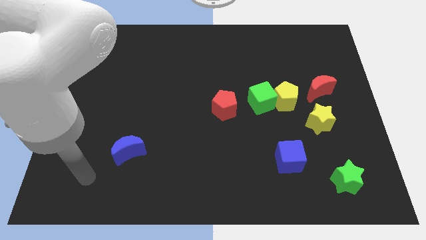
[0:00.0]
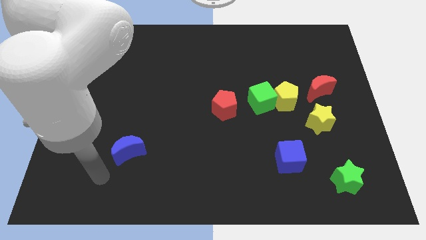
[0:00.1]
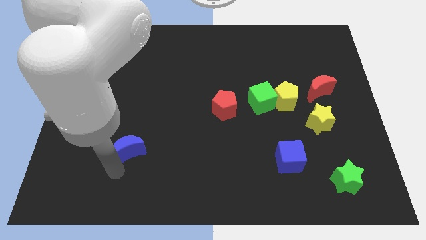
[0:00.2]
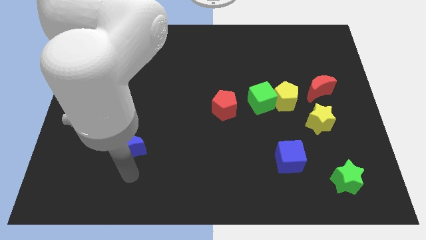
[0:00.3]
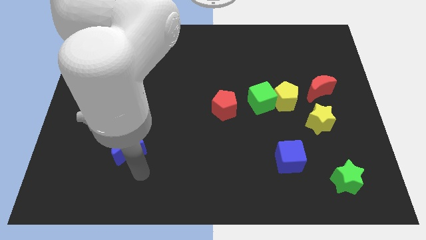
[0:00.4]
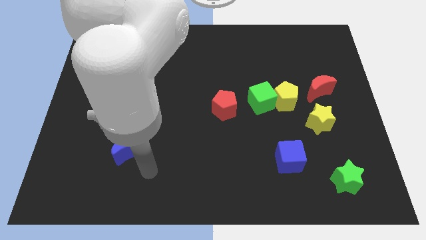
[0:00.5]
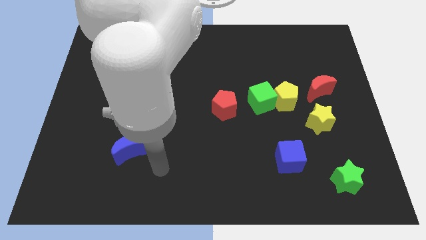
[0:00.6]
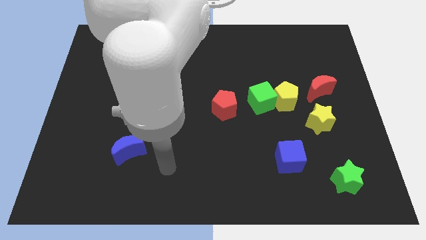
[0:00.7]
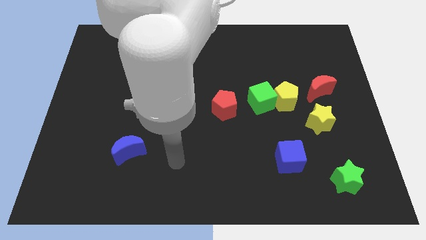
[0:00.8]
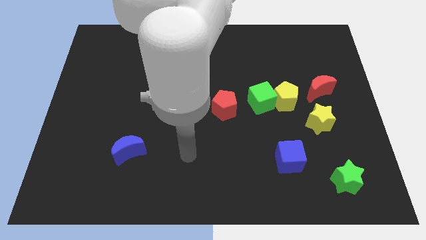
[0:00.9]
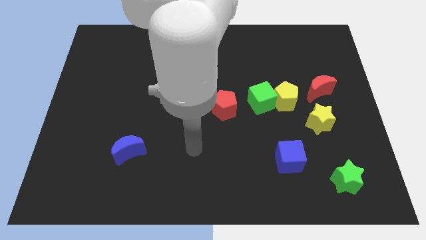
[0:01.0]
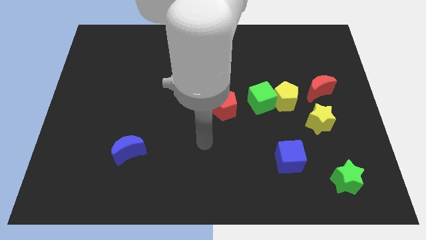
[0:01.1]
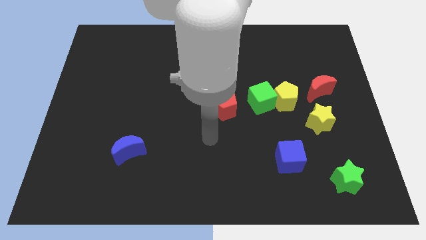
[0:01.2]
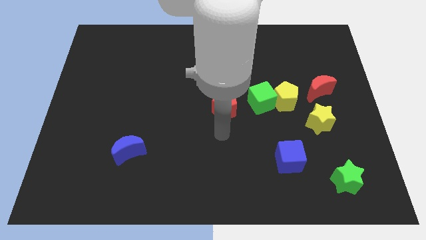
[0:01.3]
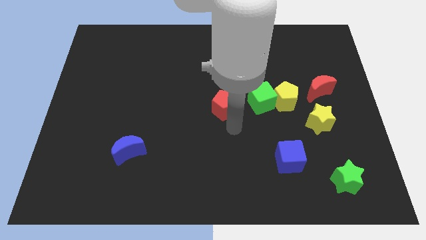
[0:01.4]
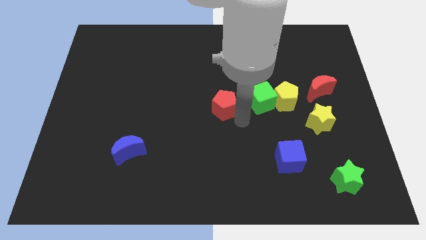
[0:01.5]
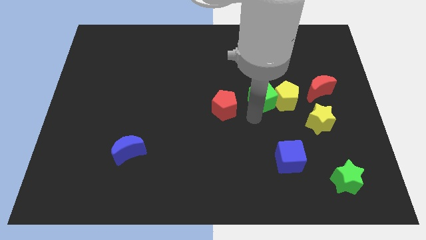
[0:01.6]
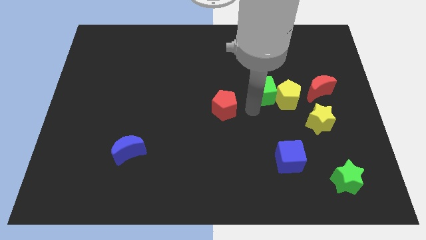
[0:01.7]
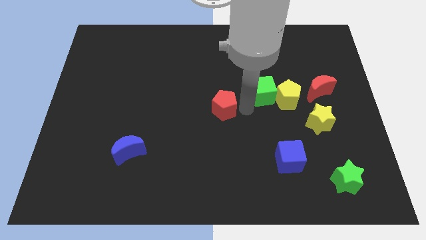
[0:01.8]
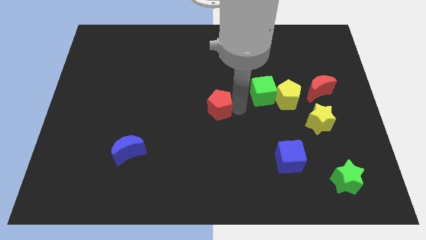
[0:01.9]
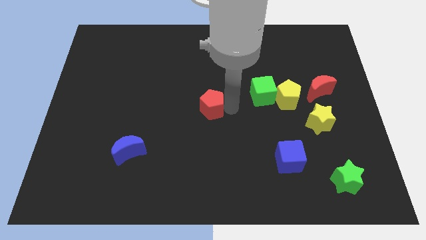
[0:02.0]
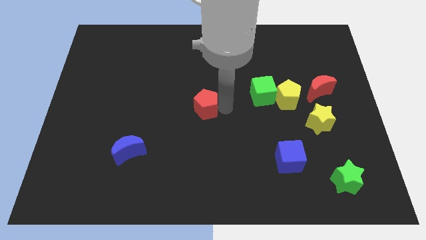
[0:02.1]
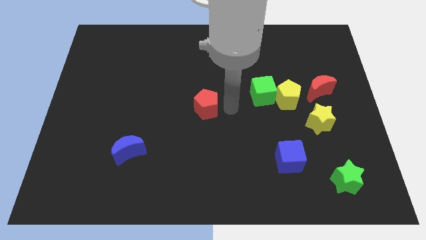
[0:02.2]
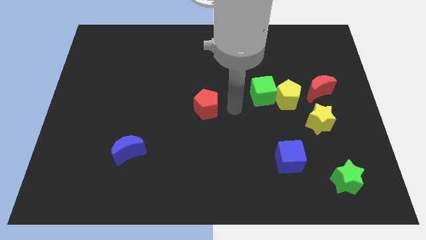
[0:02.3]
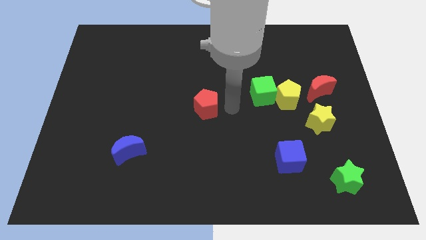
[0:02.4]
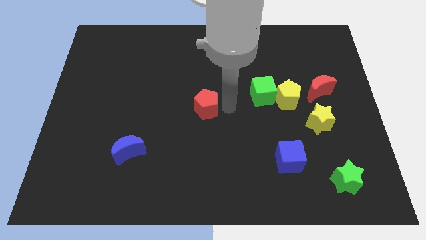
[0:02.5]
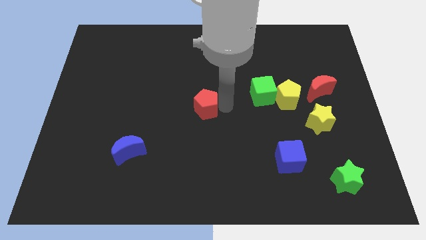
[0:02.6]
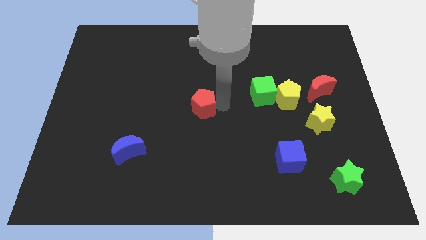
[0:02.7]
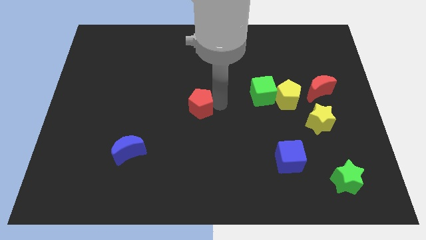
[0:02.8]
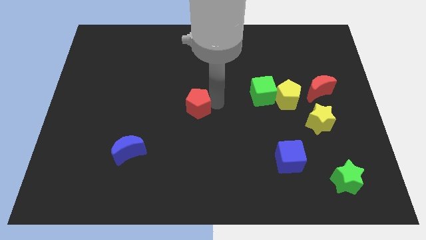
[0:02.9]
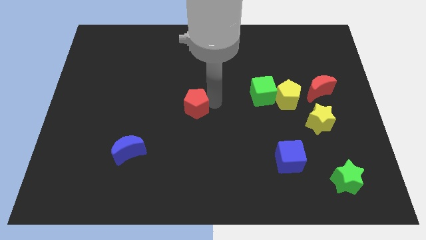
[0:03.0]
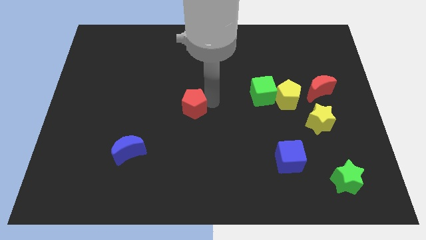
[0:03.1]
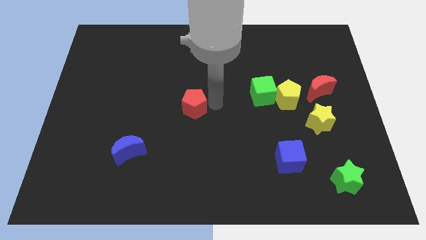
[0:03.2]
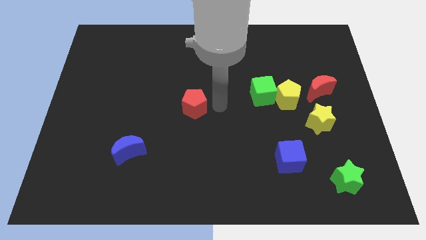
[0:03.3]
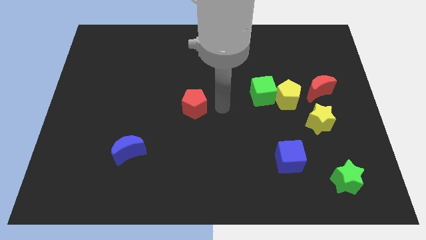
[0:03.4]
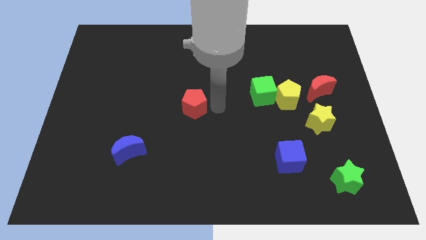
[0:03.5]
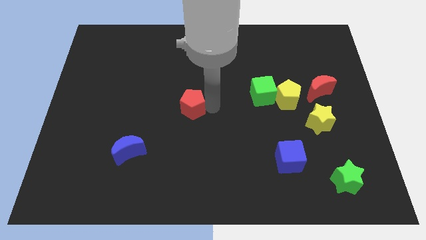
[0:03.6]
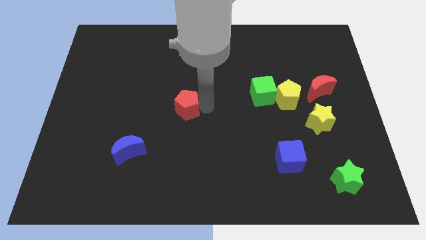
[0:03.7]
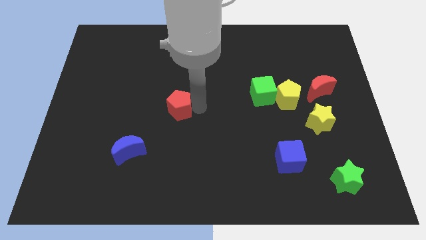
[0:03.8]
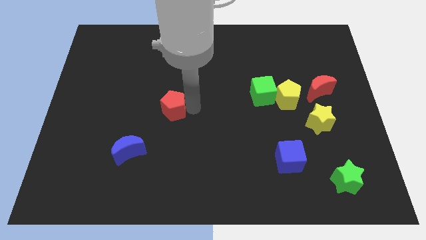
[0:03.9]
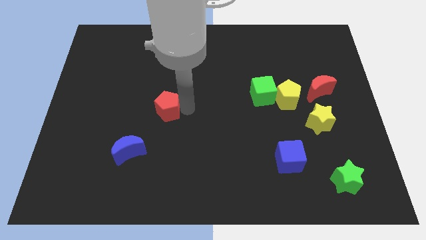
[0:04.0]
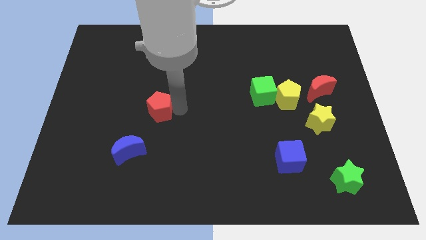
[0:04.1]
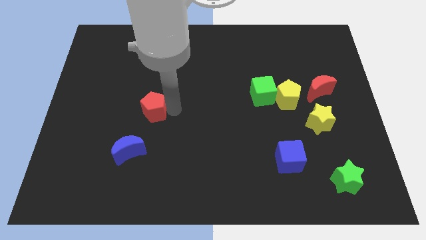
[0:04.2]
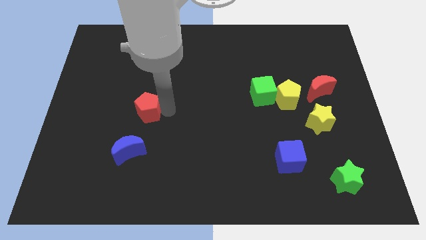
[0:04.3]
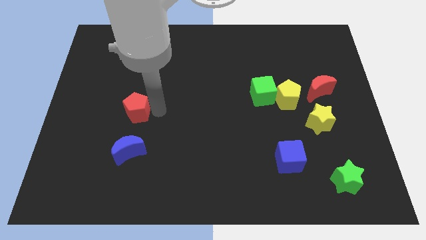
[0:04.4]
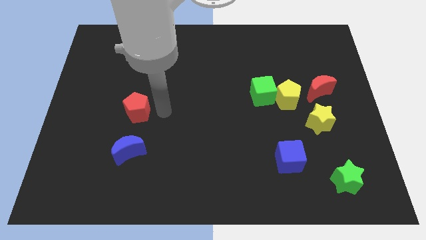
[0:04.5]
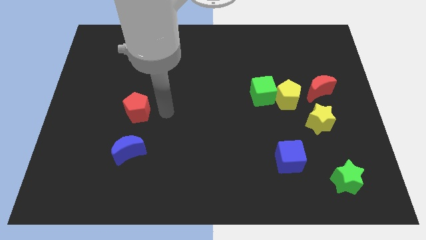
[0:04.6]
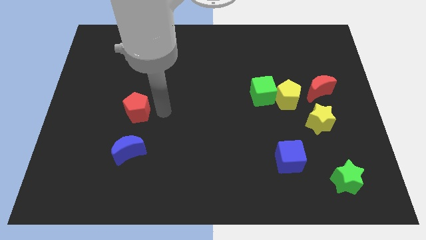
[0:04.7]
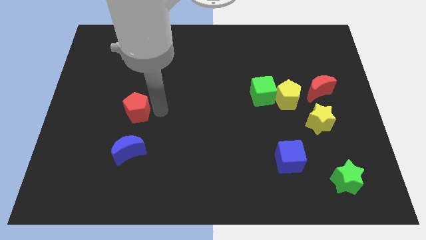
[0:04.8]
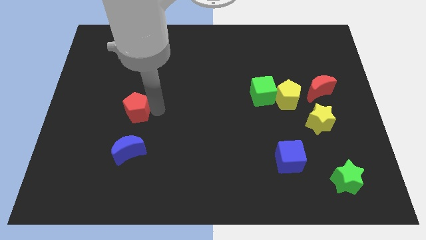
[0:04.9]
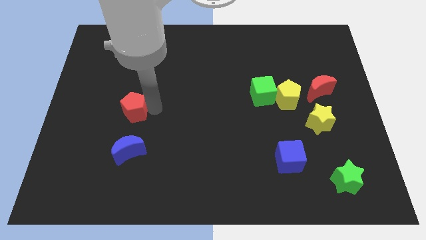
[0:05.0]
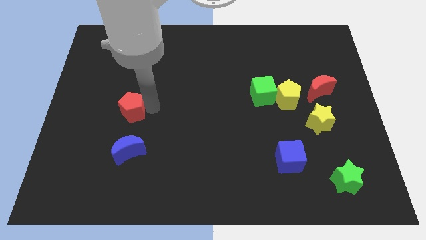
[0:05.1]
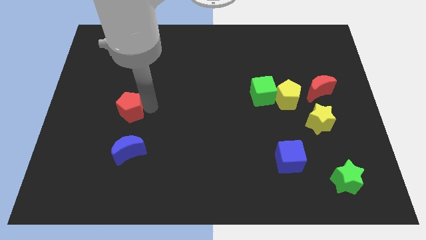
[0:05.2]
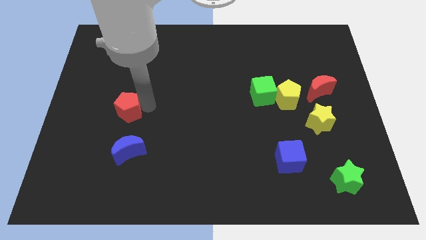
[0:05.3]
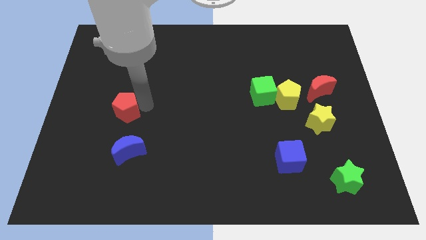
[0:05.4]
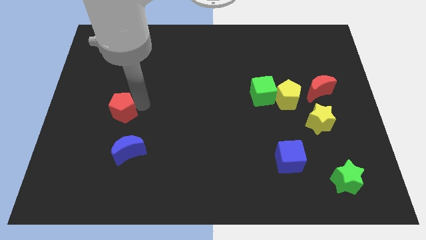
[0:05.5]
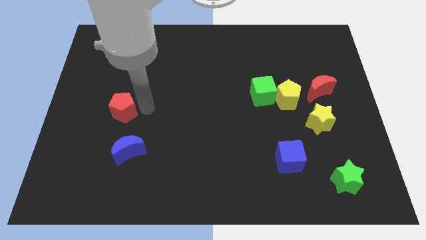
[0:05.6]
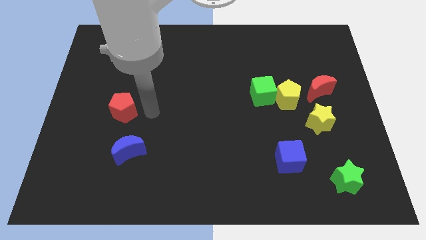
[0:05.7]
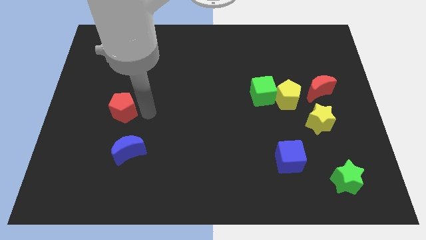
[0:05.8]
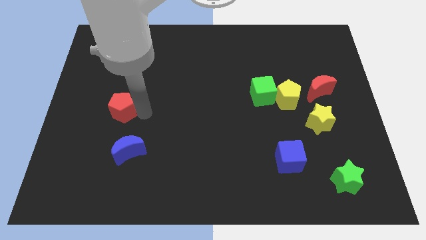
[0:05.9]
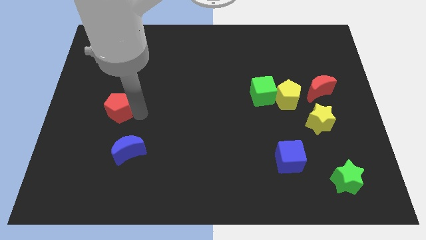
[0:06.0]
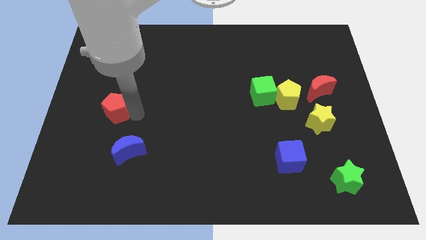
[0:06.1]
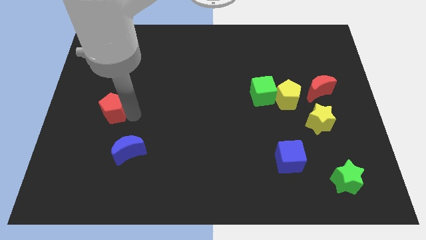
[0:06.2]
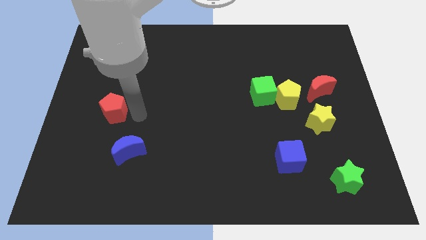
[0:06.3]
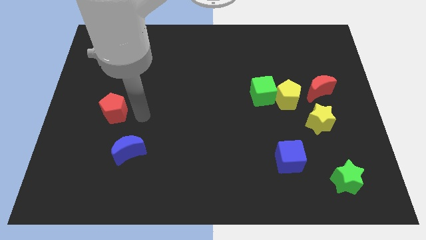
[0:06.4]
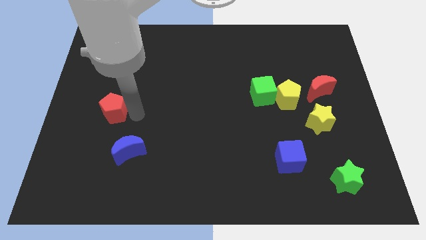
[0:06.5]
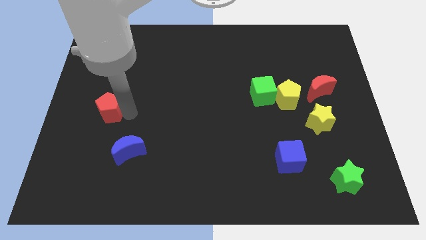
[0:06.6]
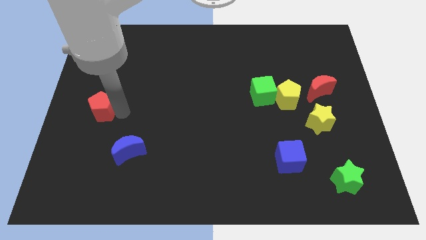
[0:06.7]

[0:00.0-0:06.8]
slide the red pentagon to the left side

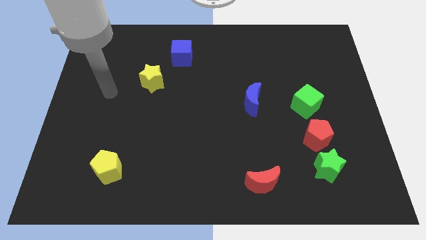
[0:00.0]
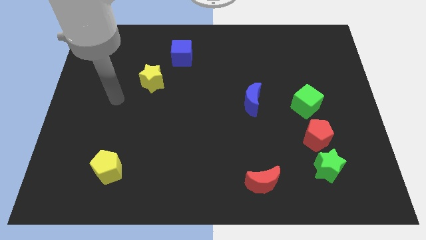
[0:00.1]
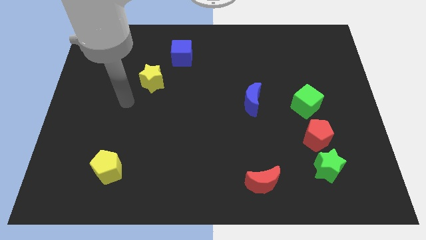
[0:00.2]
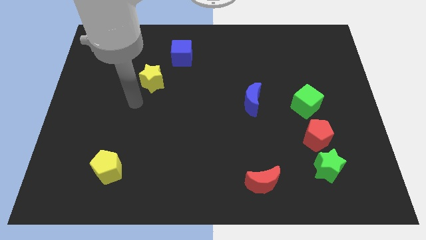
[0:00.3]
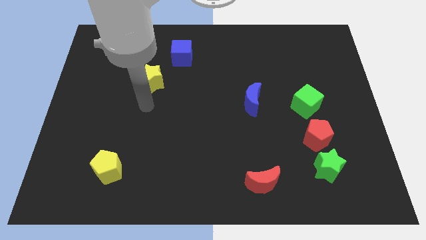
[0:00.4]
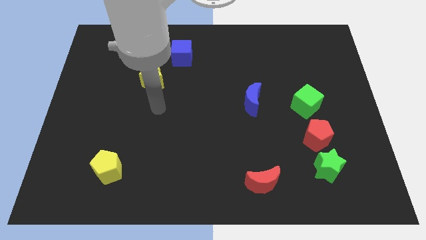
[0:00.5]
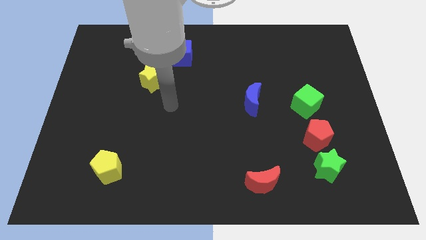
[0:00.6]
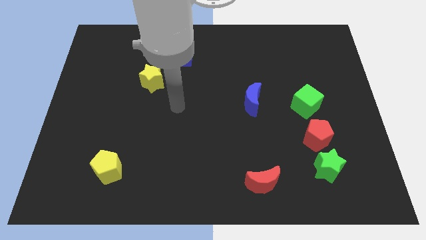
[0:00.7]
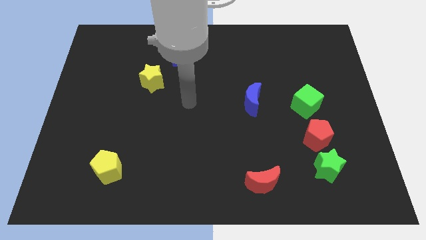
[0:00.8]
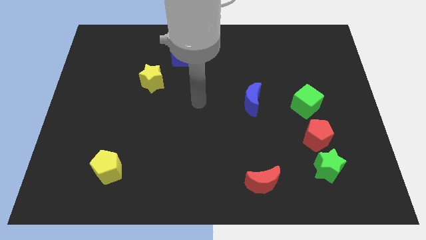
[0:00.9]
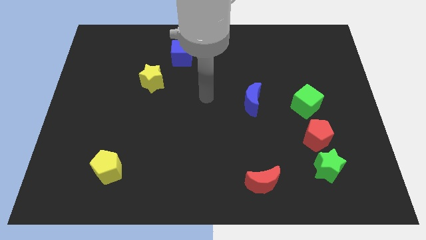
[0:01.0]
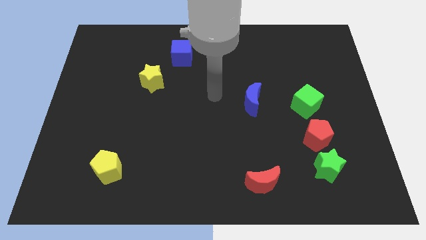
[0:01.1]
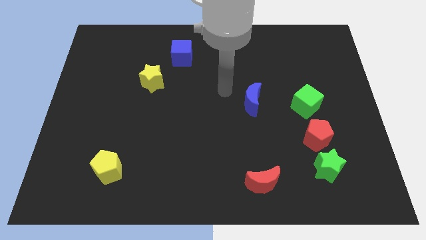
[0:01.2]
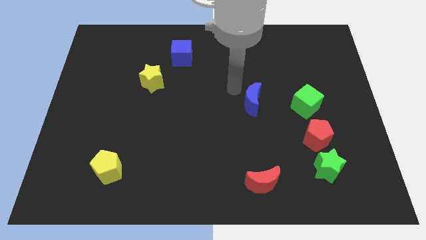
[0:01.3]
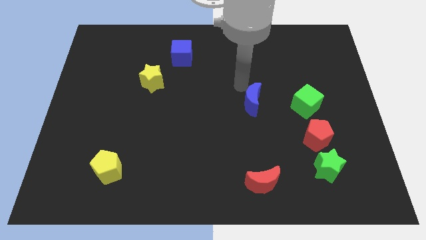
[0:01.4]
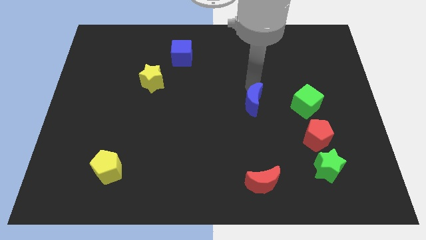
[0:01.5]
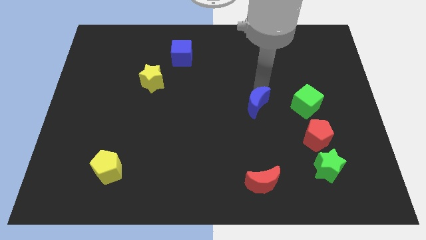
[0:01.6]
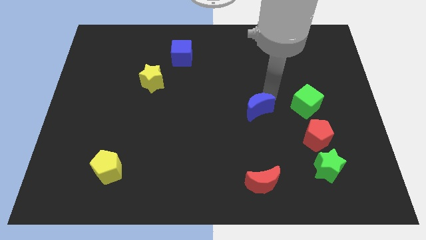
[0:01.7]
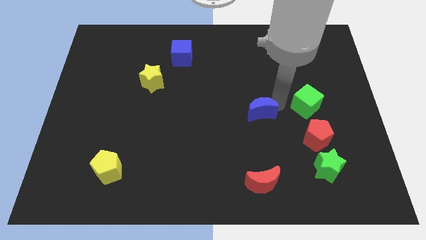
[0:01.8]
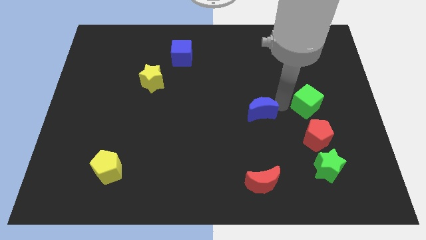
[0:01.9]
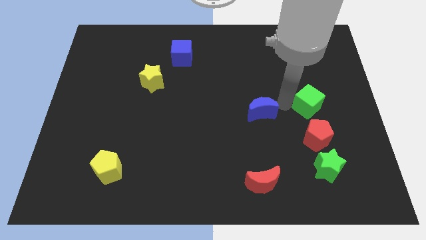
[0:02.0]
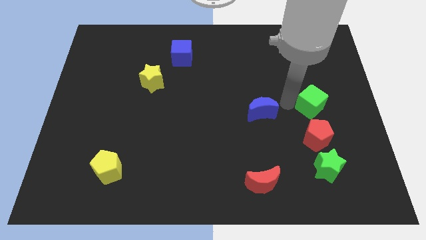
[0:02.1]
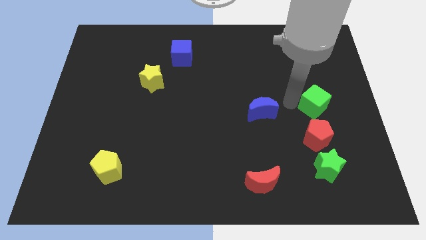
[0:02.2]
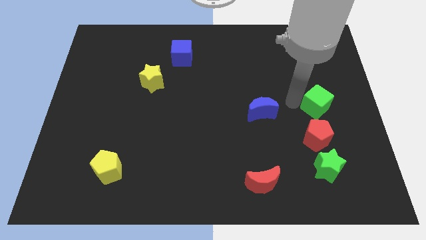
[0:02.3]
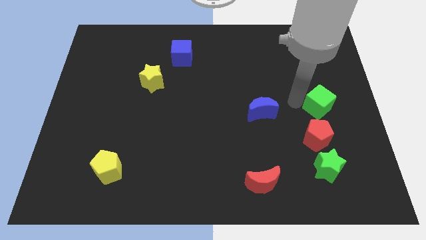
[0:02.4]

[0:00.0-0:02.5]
push the green cube to the right side
